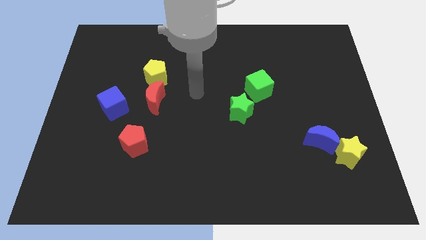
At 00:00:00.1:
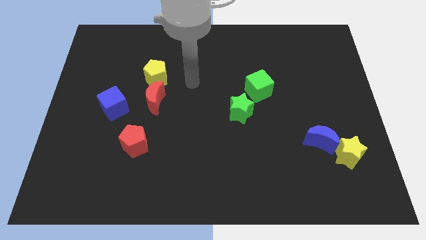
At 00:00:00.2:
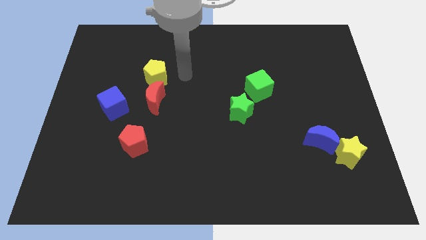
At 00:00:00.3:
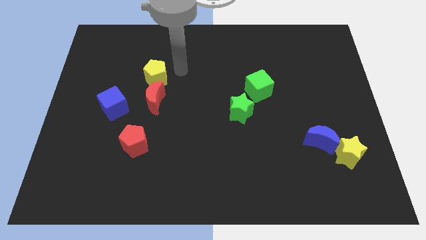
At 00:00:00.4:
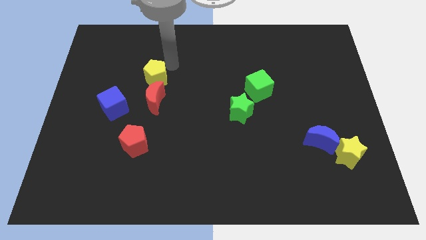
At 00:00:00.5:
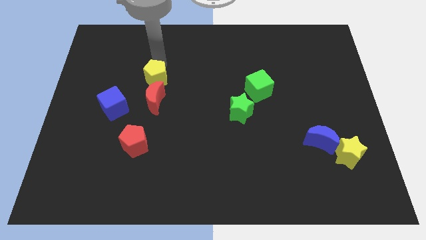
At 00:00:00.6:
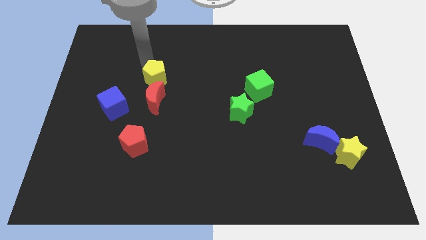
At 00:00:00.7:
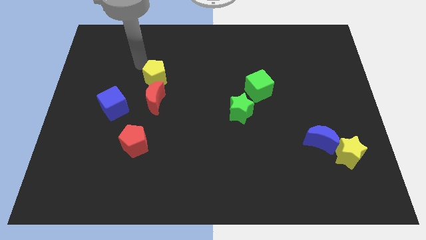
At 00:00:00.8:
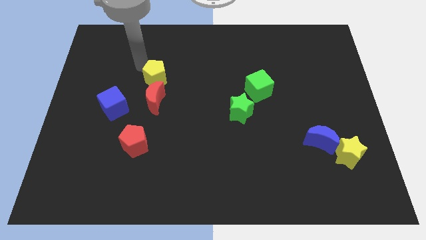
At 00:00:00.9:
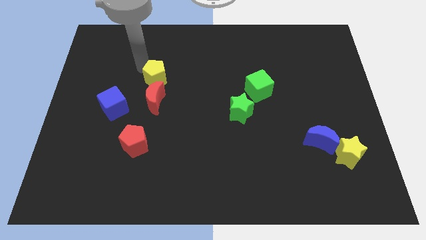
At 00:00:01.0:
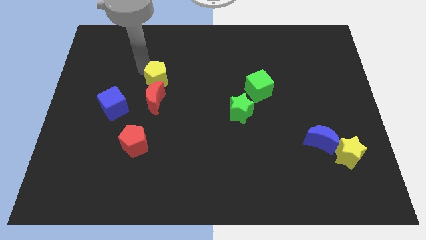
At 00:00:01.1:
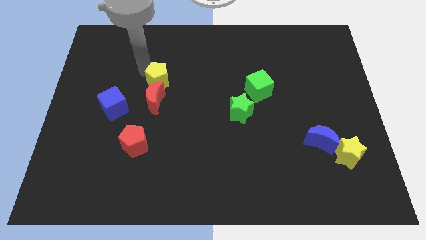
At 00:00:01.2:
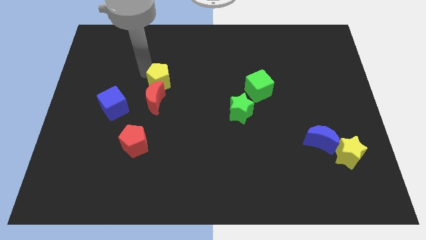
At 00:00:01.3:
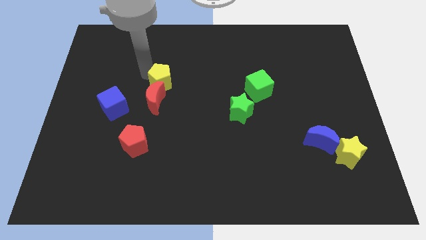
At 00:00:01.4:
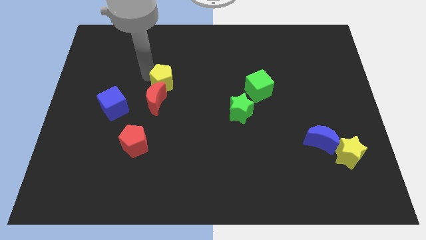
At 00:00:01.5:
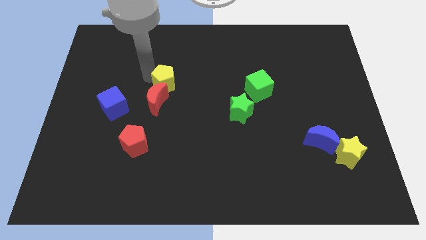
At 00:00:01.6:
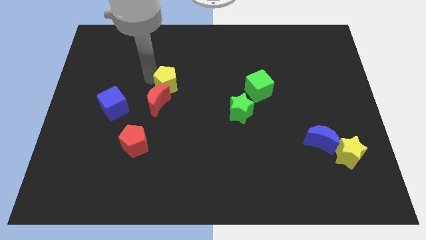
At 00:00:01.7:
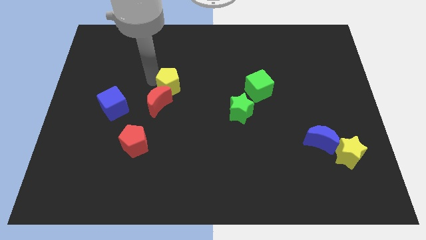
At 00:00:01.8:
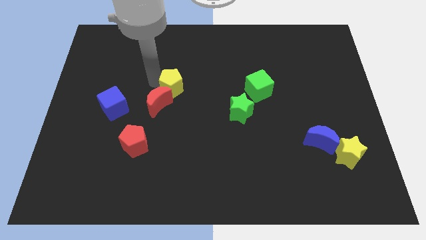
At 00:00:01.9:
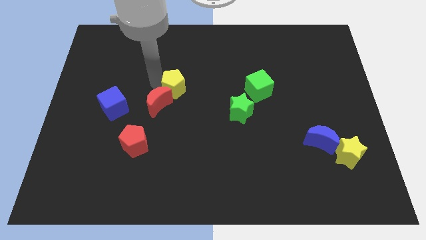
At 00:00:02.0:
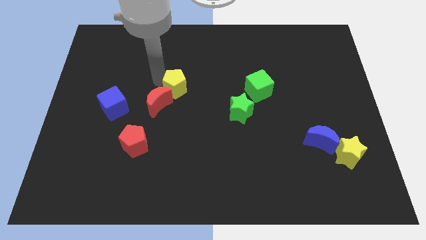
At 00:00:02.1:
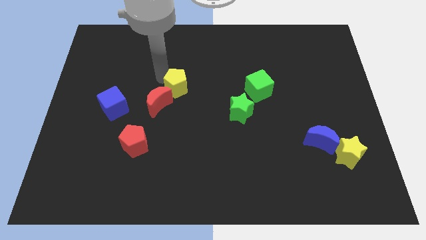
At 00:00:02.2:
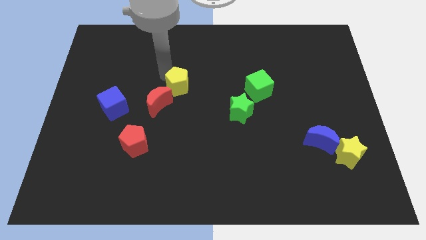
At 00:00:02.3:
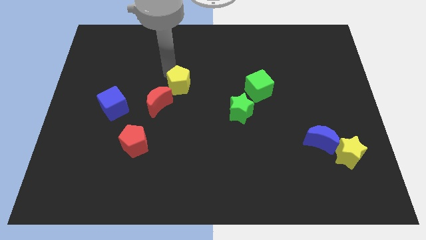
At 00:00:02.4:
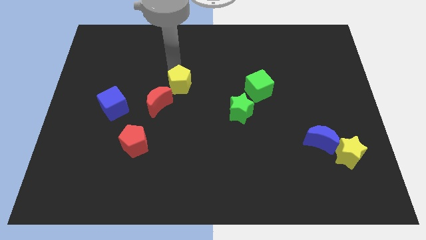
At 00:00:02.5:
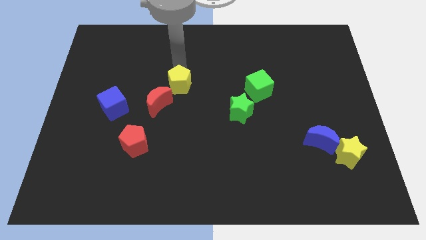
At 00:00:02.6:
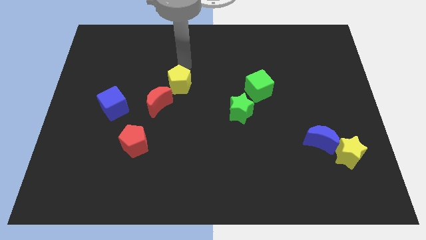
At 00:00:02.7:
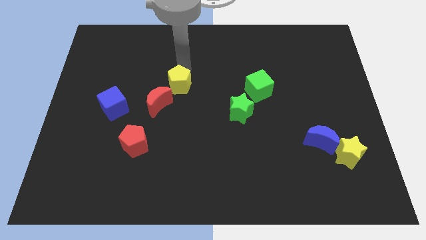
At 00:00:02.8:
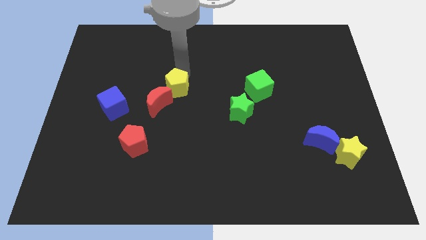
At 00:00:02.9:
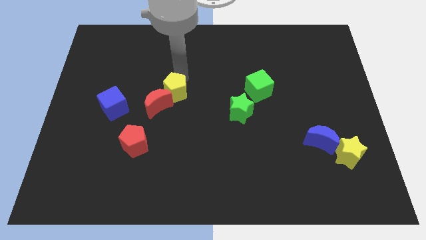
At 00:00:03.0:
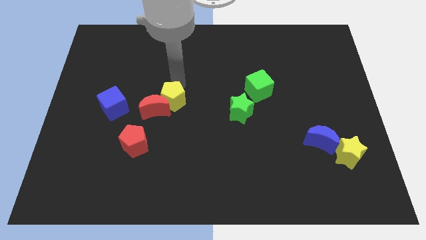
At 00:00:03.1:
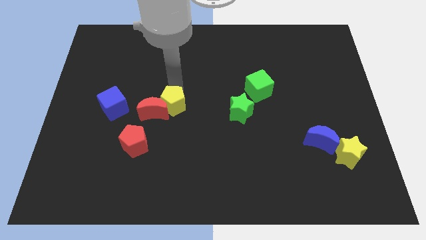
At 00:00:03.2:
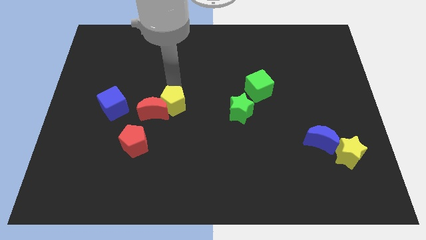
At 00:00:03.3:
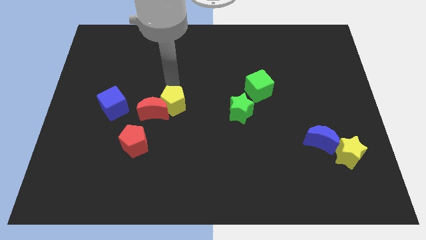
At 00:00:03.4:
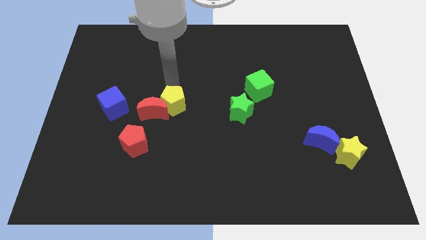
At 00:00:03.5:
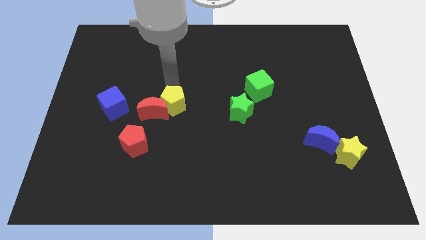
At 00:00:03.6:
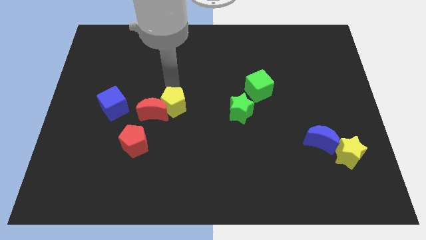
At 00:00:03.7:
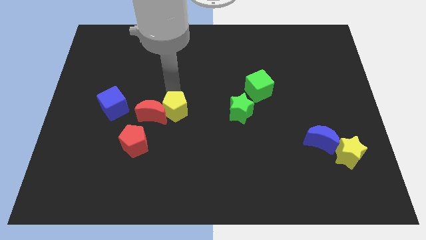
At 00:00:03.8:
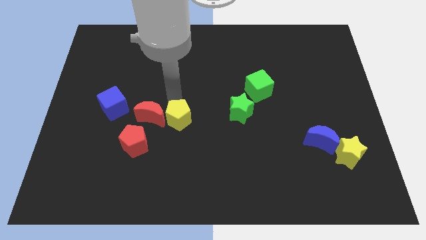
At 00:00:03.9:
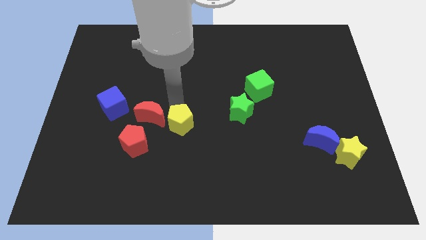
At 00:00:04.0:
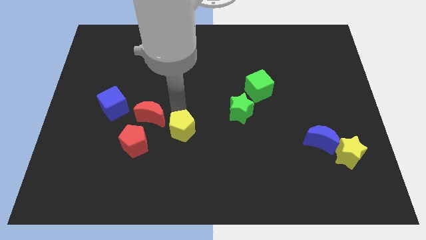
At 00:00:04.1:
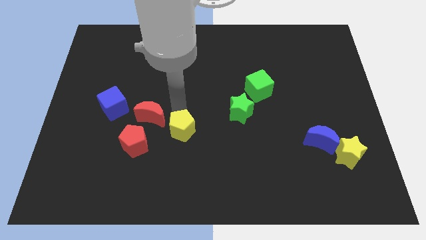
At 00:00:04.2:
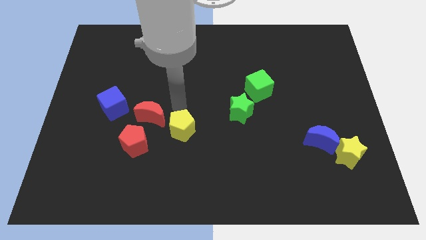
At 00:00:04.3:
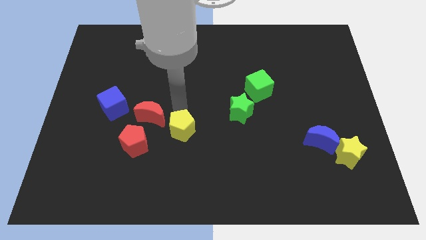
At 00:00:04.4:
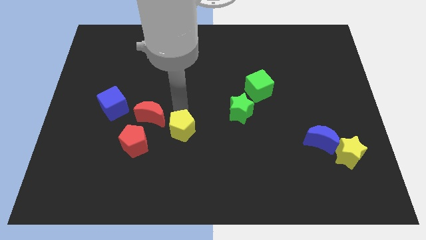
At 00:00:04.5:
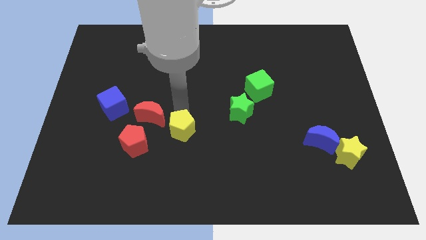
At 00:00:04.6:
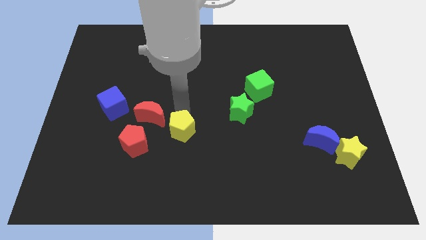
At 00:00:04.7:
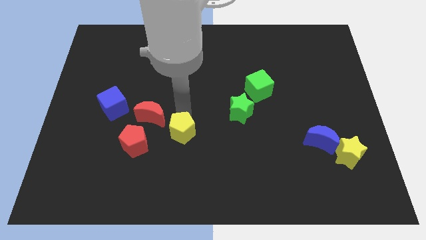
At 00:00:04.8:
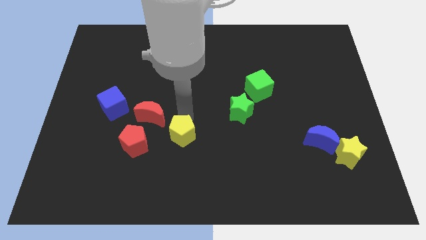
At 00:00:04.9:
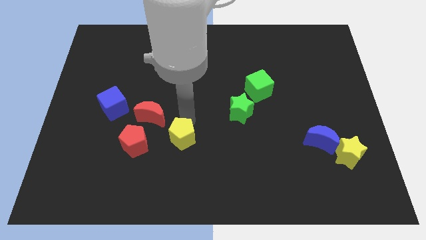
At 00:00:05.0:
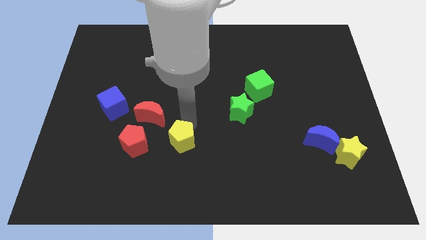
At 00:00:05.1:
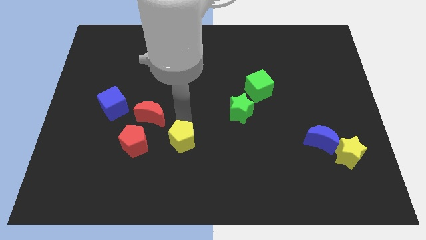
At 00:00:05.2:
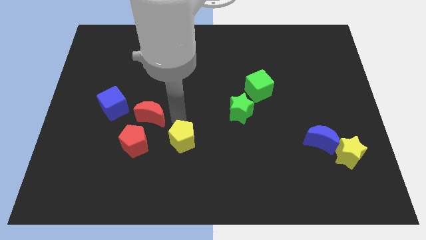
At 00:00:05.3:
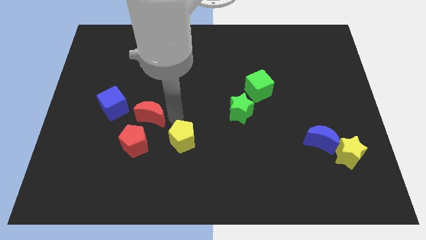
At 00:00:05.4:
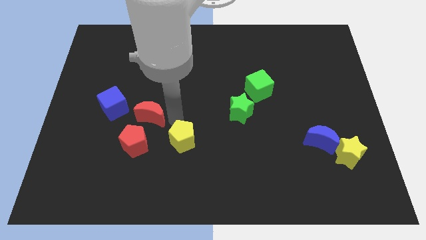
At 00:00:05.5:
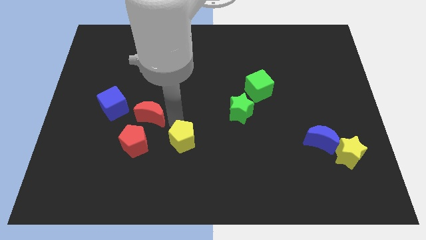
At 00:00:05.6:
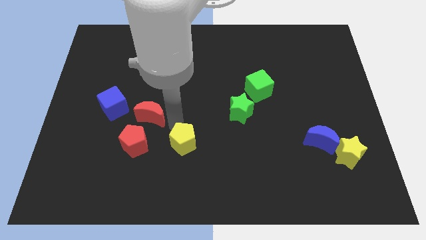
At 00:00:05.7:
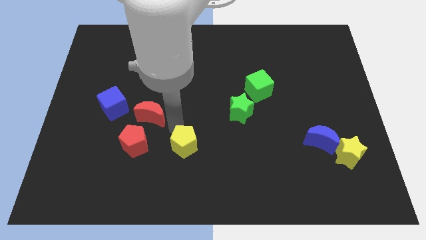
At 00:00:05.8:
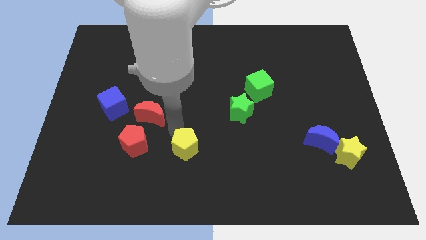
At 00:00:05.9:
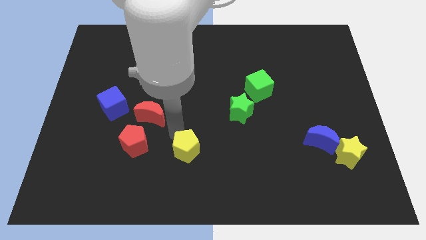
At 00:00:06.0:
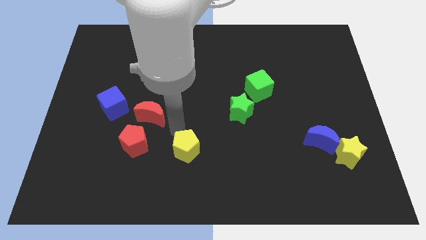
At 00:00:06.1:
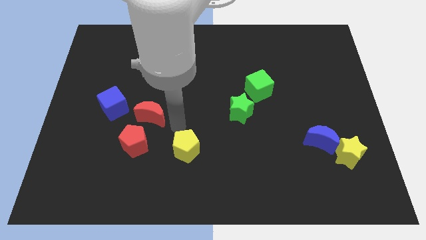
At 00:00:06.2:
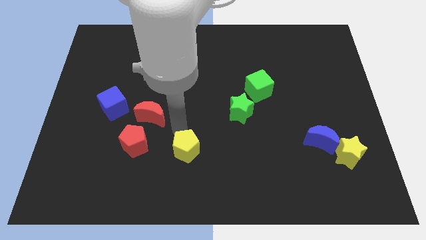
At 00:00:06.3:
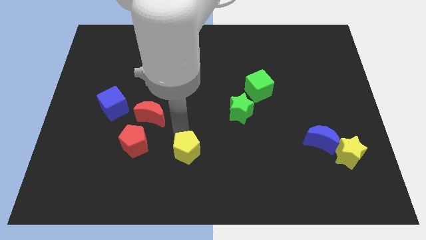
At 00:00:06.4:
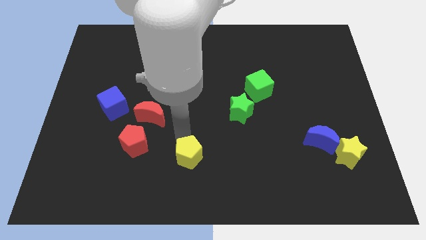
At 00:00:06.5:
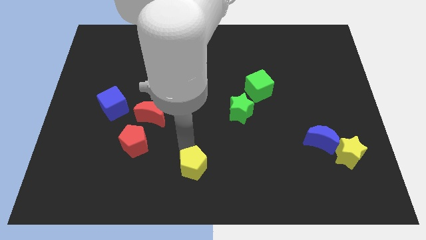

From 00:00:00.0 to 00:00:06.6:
slide the yellow pentagon to the bottom side
